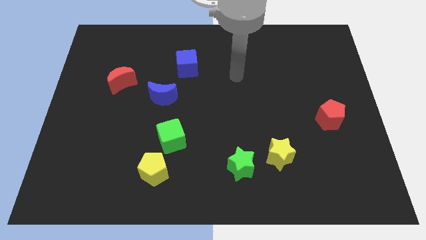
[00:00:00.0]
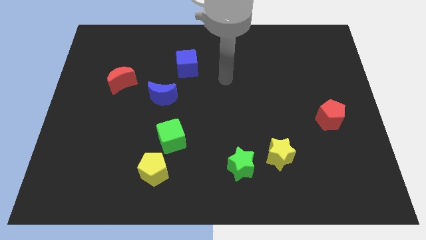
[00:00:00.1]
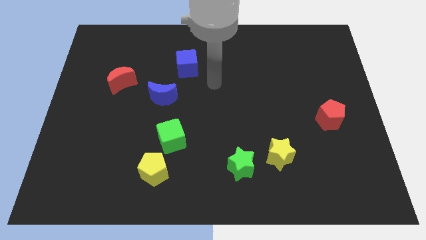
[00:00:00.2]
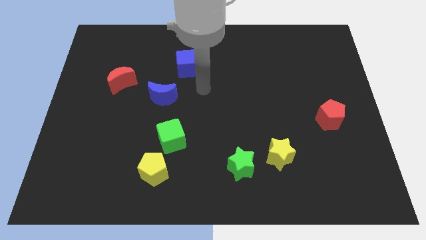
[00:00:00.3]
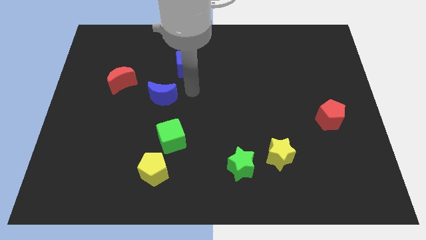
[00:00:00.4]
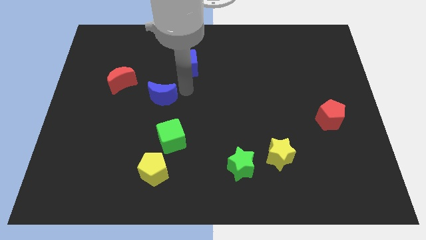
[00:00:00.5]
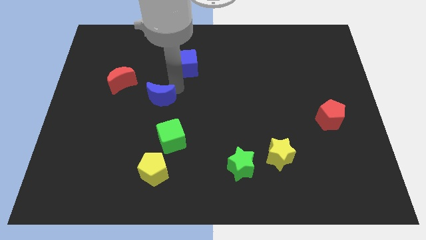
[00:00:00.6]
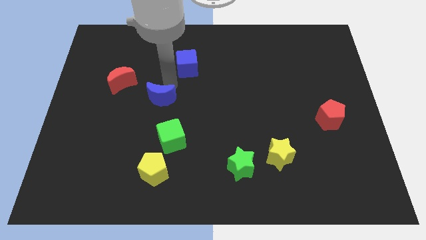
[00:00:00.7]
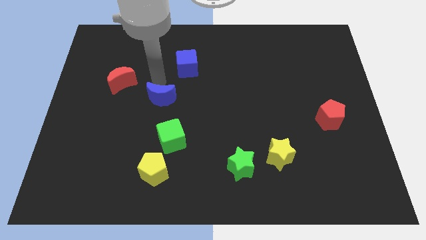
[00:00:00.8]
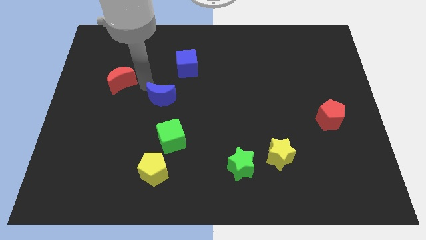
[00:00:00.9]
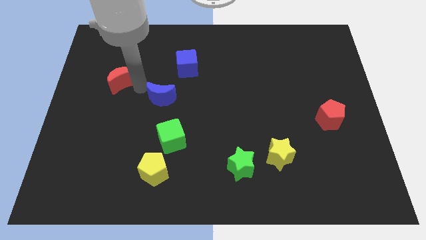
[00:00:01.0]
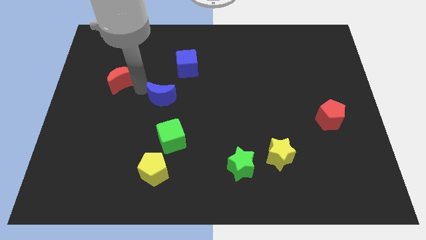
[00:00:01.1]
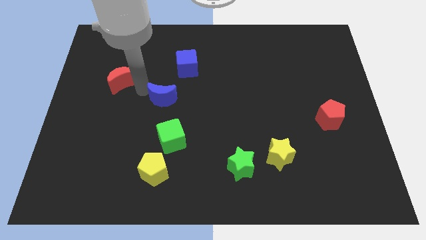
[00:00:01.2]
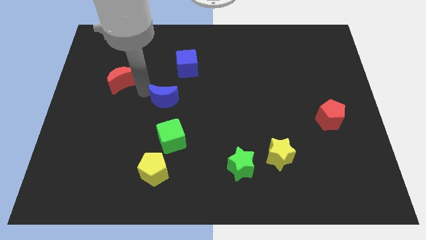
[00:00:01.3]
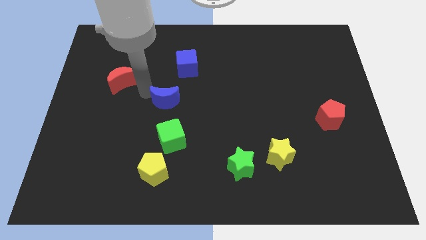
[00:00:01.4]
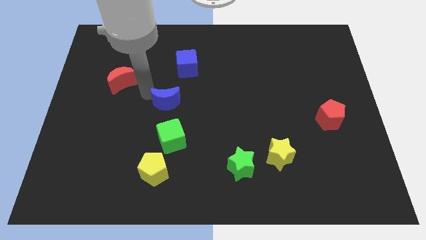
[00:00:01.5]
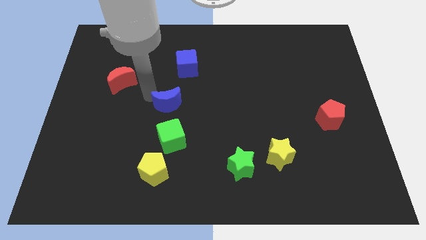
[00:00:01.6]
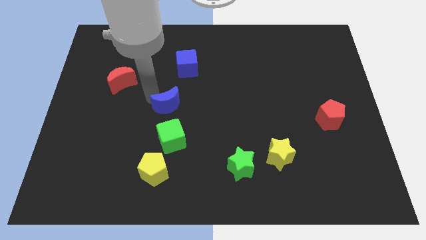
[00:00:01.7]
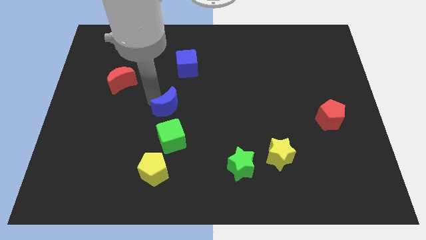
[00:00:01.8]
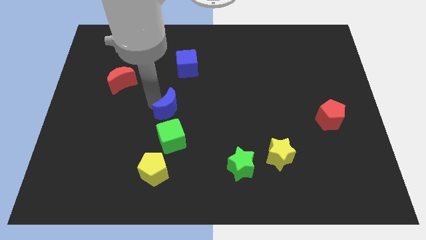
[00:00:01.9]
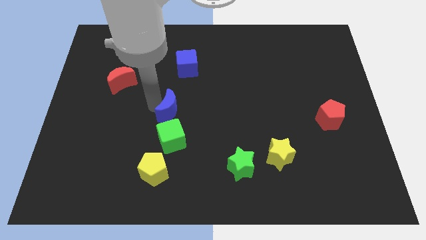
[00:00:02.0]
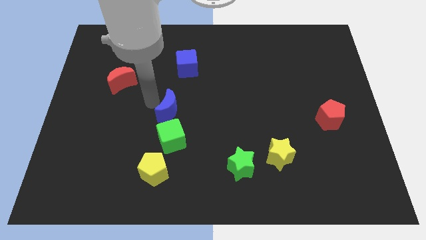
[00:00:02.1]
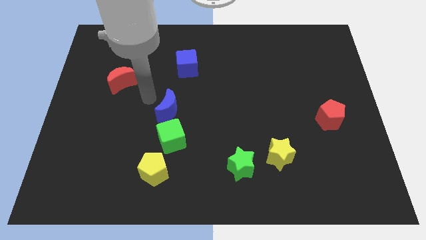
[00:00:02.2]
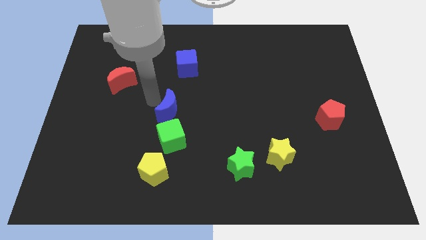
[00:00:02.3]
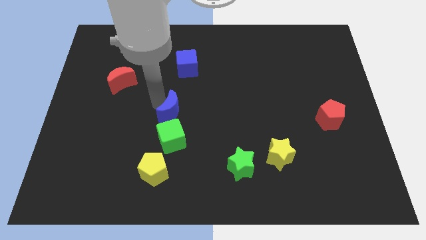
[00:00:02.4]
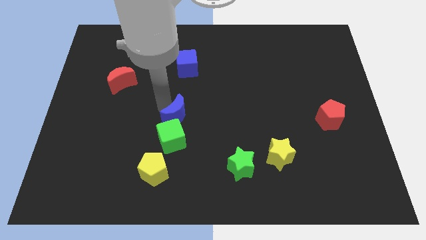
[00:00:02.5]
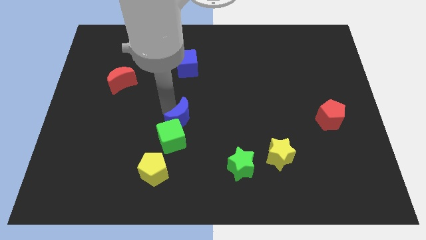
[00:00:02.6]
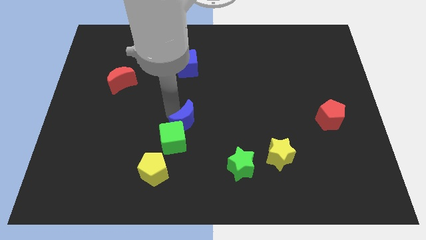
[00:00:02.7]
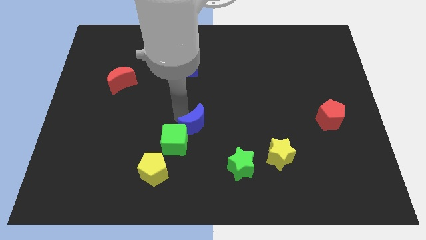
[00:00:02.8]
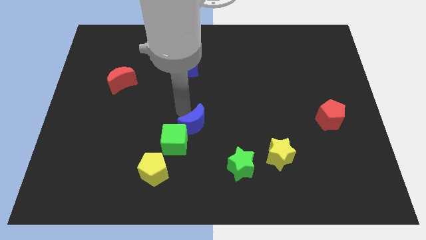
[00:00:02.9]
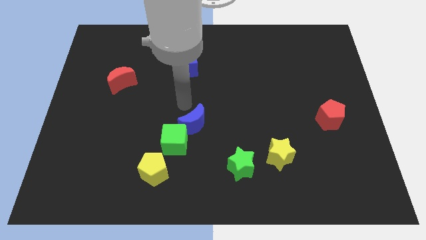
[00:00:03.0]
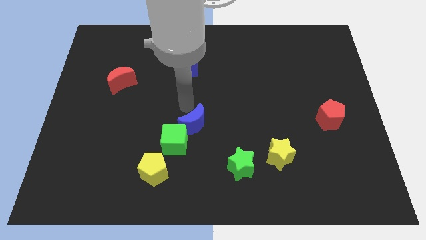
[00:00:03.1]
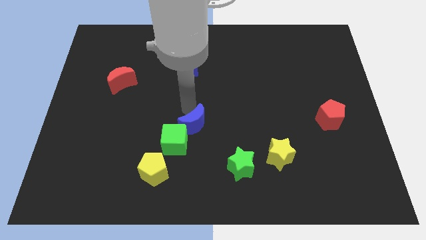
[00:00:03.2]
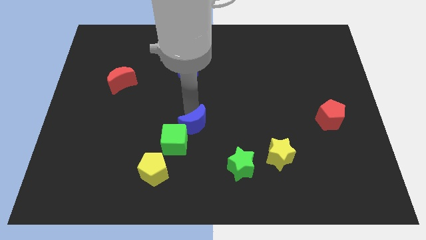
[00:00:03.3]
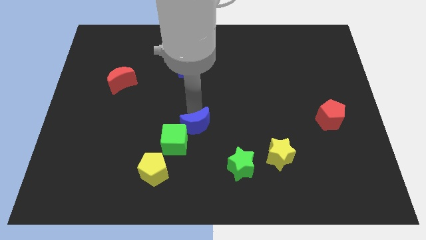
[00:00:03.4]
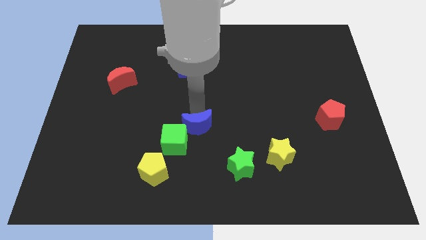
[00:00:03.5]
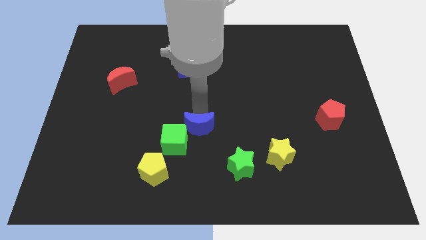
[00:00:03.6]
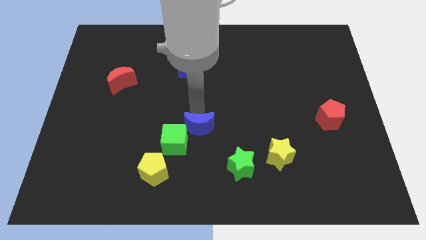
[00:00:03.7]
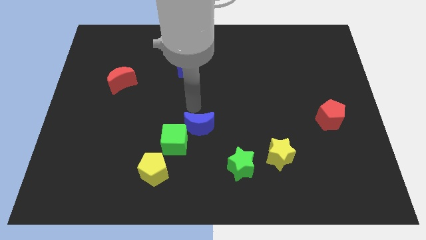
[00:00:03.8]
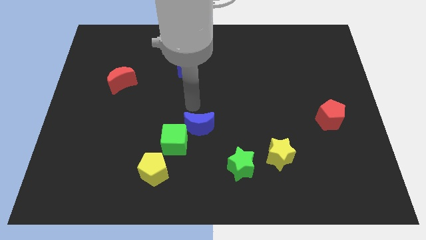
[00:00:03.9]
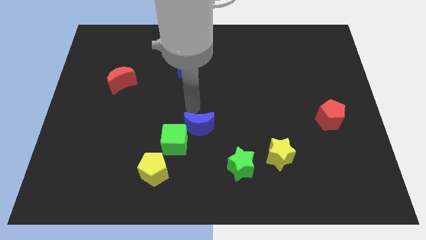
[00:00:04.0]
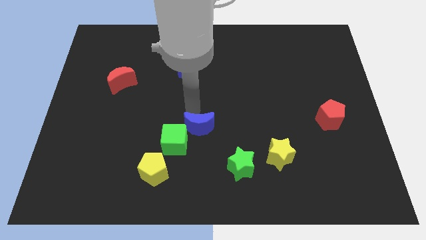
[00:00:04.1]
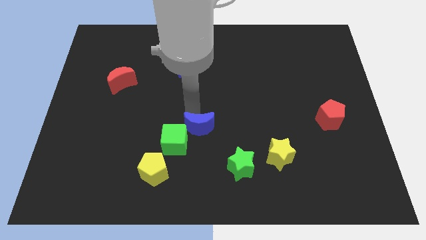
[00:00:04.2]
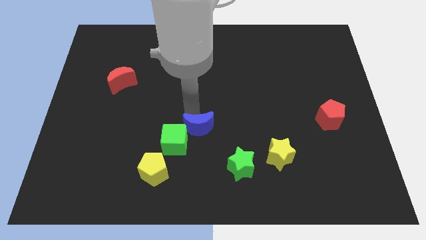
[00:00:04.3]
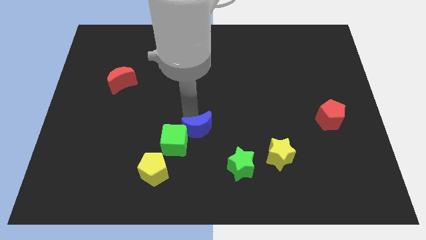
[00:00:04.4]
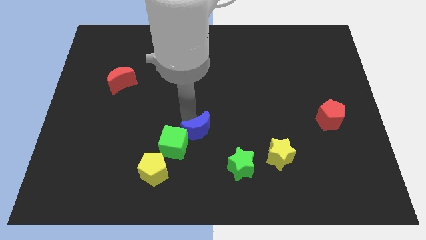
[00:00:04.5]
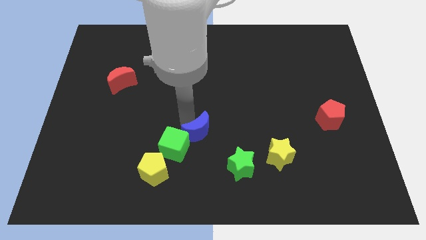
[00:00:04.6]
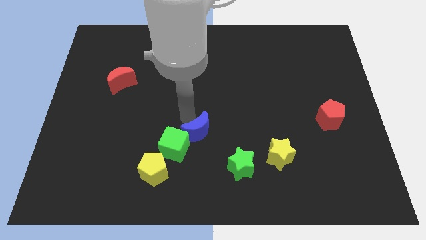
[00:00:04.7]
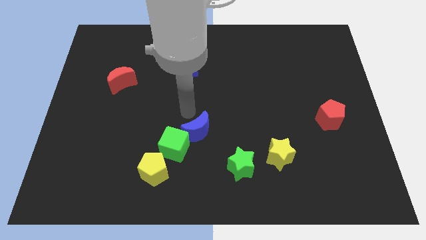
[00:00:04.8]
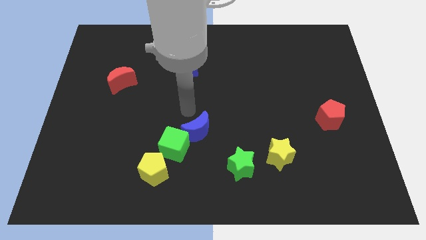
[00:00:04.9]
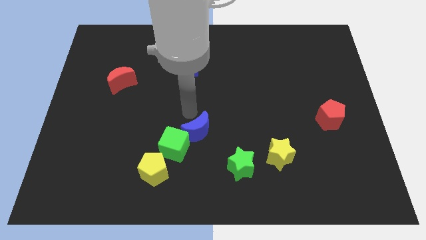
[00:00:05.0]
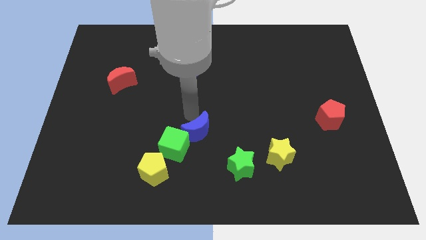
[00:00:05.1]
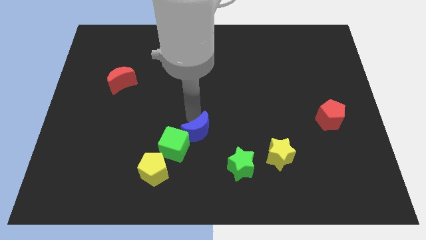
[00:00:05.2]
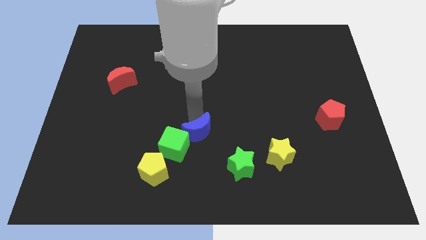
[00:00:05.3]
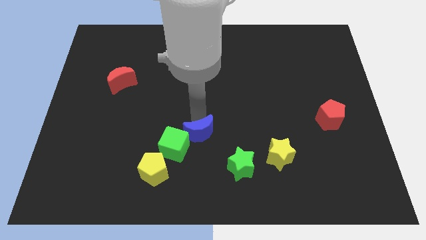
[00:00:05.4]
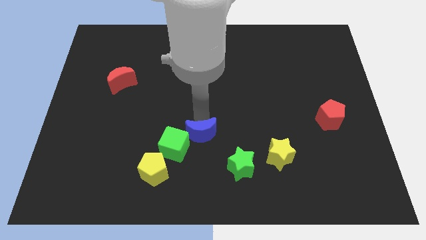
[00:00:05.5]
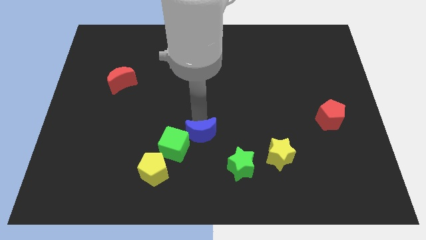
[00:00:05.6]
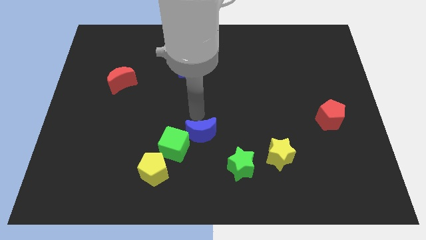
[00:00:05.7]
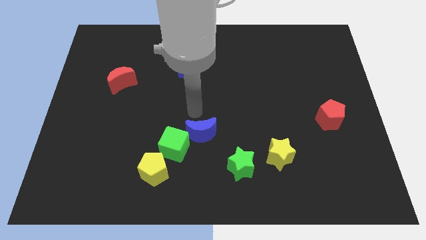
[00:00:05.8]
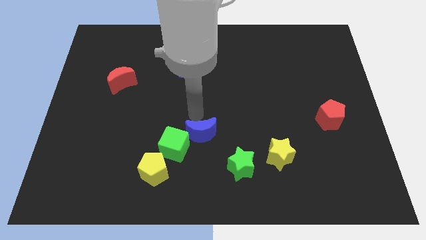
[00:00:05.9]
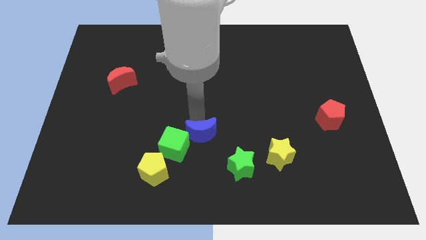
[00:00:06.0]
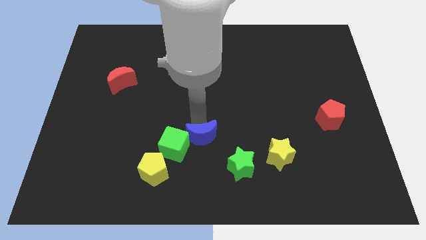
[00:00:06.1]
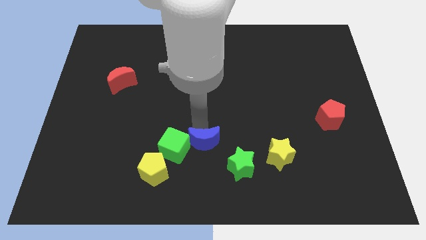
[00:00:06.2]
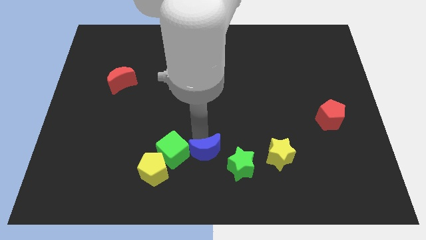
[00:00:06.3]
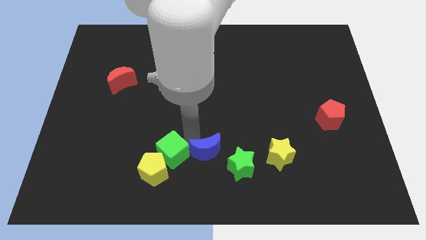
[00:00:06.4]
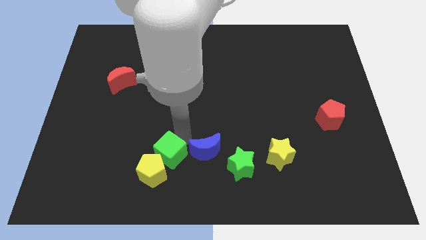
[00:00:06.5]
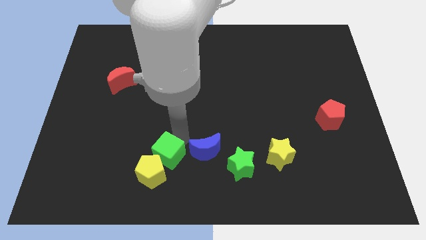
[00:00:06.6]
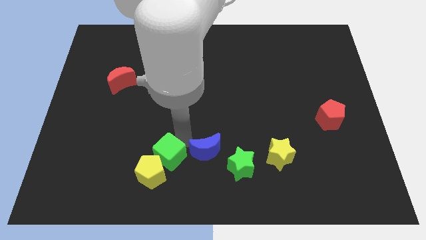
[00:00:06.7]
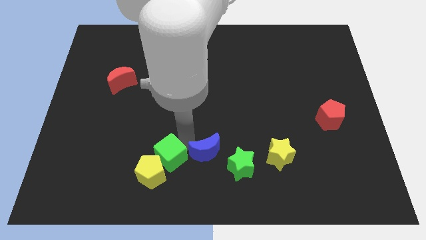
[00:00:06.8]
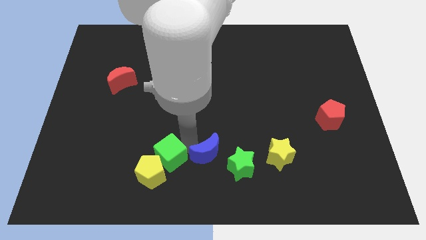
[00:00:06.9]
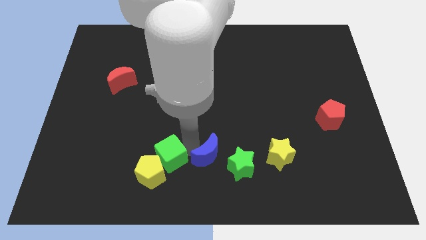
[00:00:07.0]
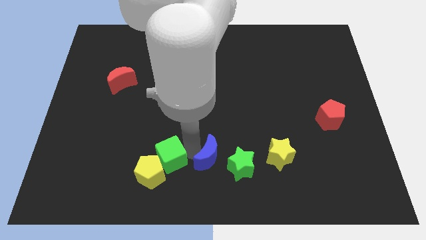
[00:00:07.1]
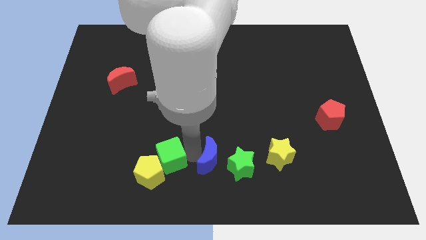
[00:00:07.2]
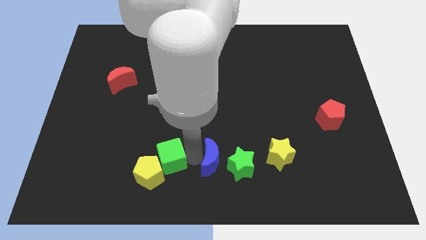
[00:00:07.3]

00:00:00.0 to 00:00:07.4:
put the blue moon to the green star
